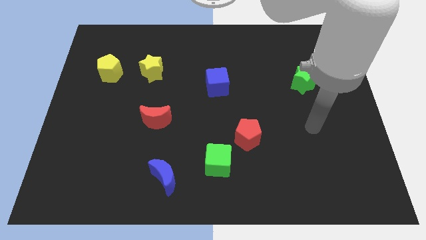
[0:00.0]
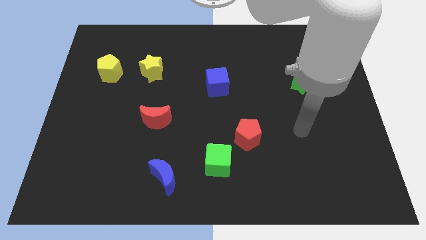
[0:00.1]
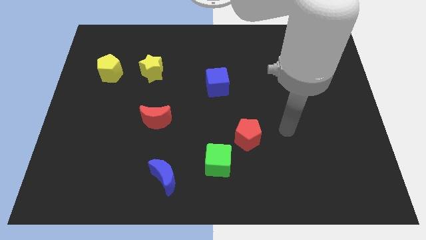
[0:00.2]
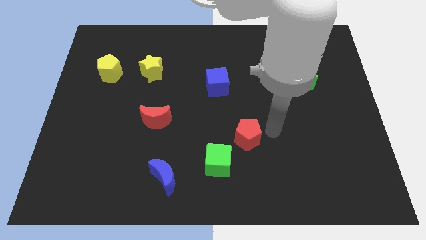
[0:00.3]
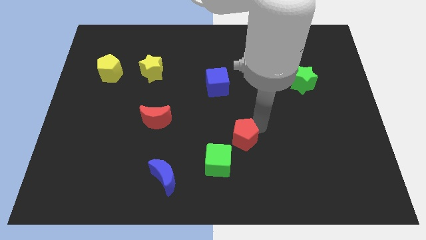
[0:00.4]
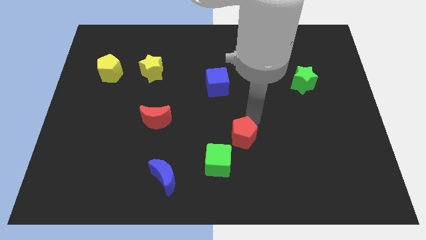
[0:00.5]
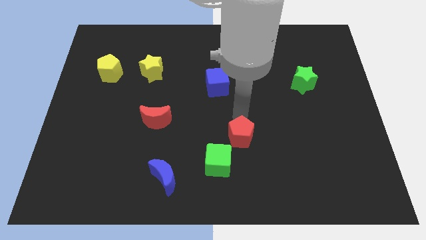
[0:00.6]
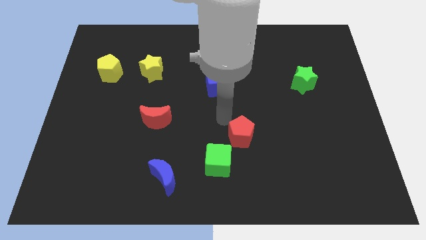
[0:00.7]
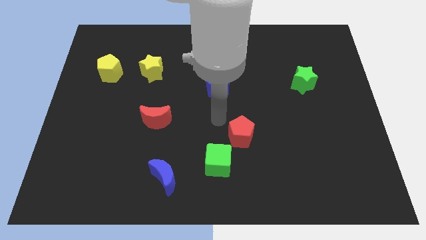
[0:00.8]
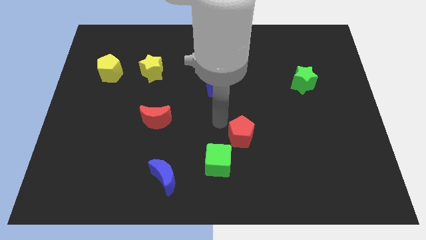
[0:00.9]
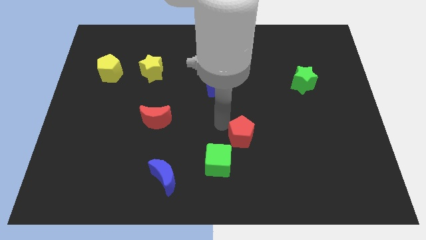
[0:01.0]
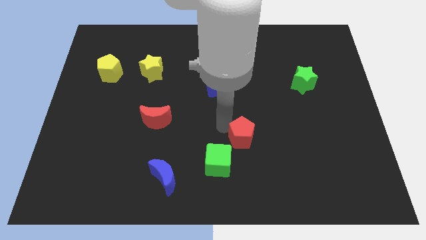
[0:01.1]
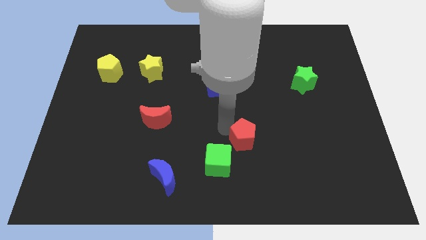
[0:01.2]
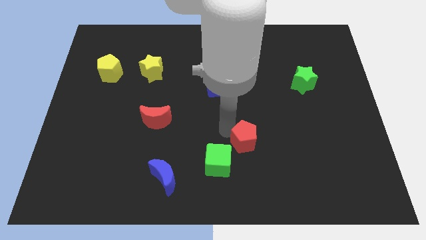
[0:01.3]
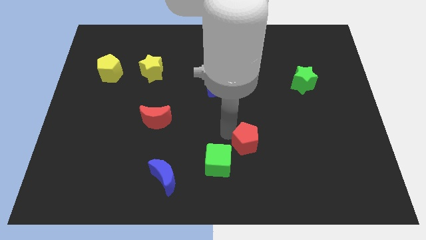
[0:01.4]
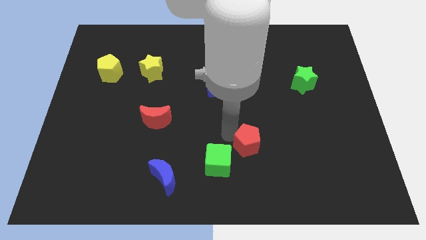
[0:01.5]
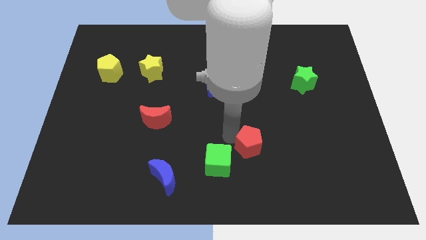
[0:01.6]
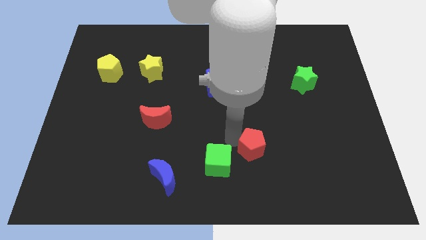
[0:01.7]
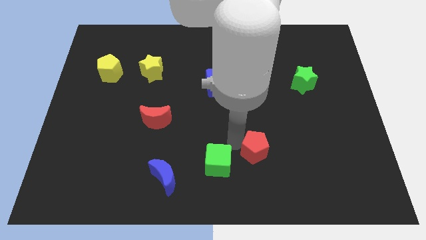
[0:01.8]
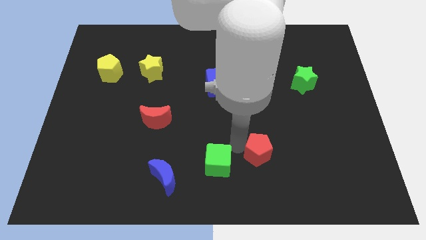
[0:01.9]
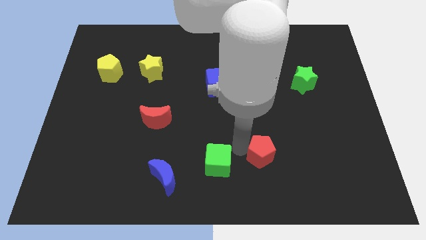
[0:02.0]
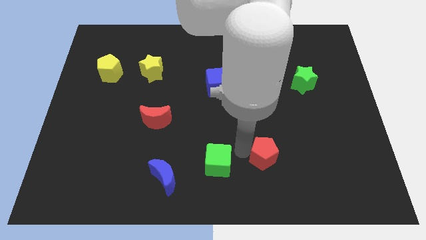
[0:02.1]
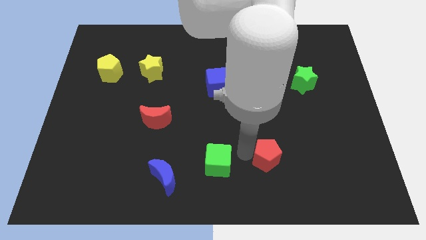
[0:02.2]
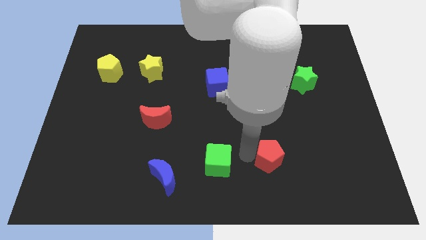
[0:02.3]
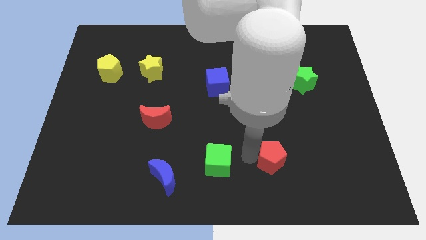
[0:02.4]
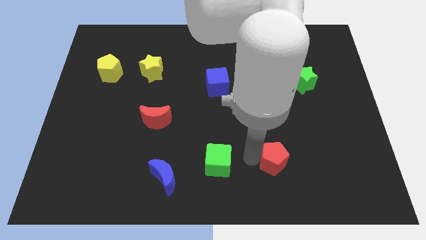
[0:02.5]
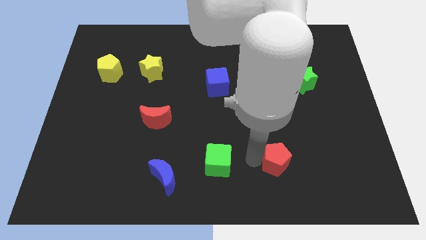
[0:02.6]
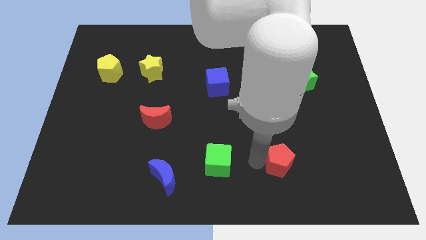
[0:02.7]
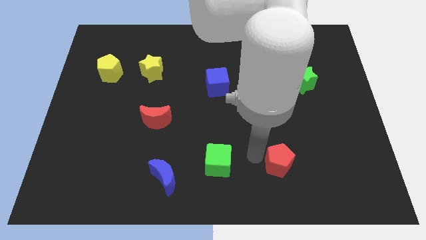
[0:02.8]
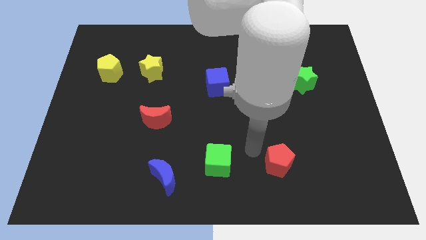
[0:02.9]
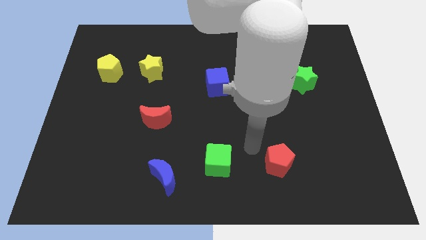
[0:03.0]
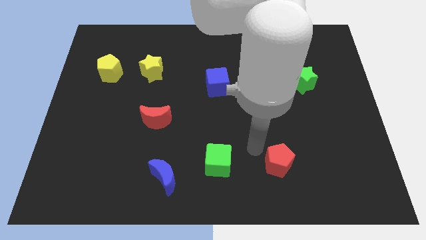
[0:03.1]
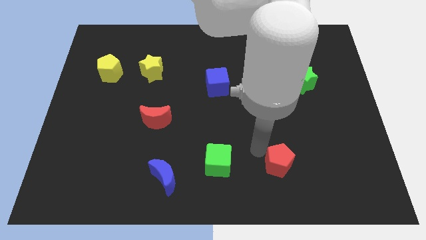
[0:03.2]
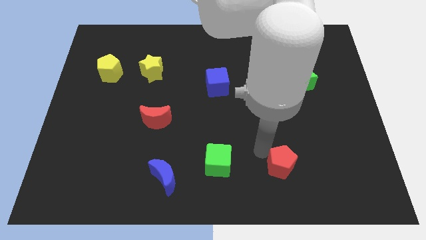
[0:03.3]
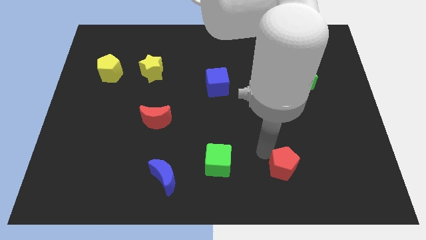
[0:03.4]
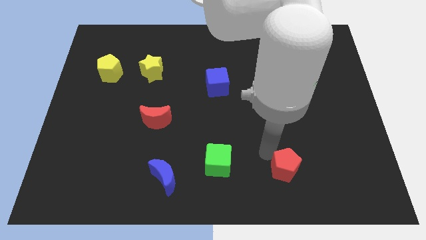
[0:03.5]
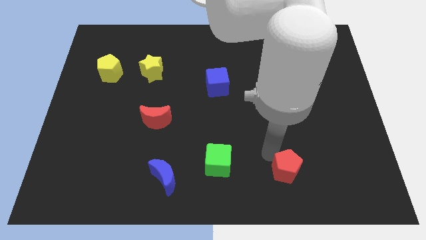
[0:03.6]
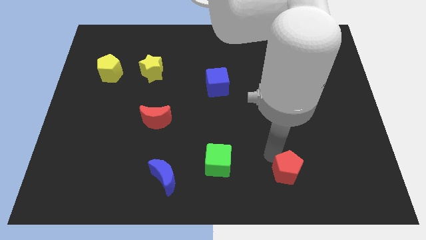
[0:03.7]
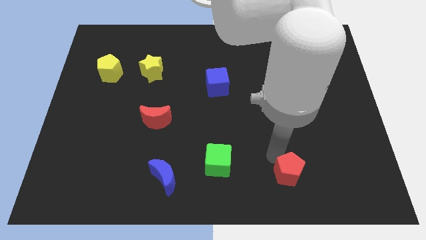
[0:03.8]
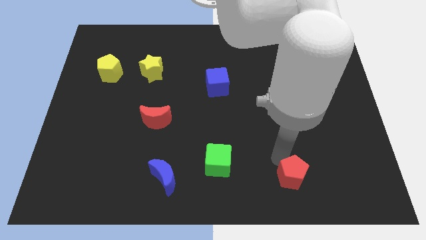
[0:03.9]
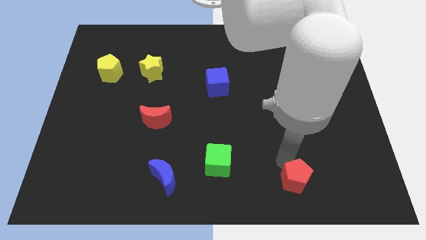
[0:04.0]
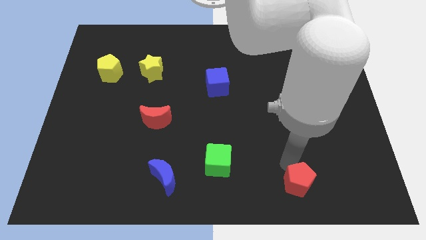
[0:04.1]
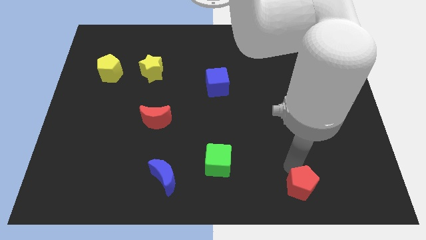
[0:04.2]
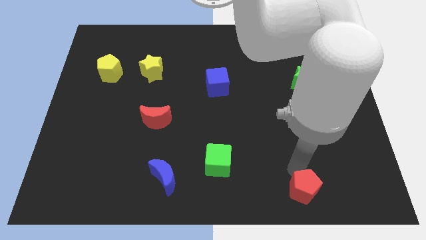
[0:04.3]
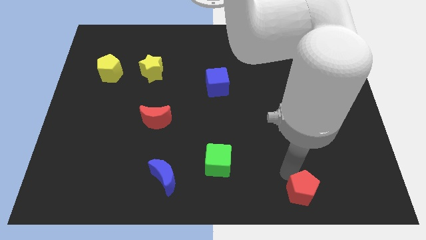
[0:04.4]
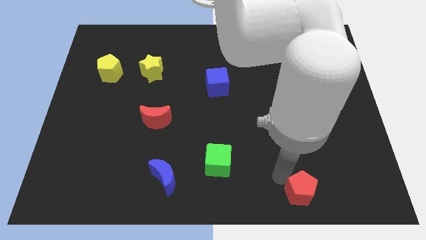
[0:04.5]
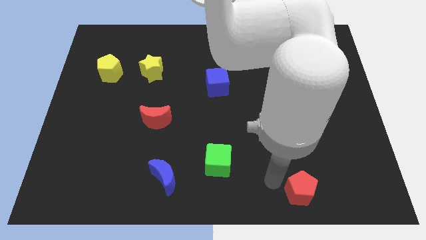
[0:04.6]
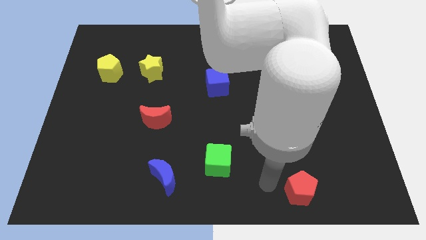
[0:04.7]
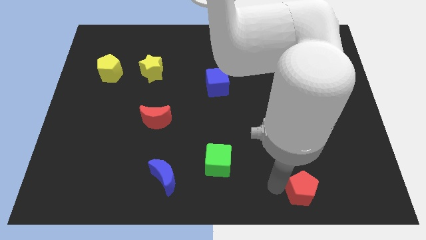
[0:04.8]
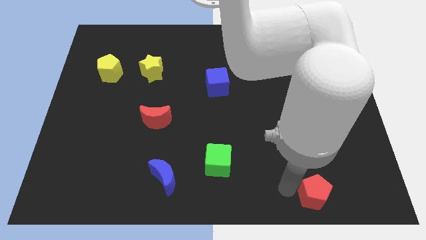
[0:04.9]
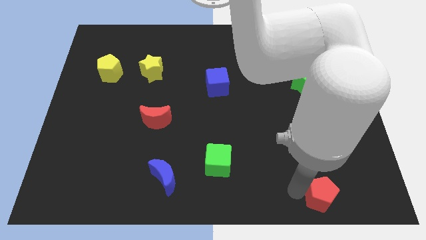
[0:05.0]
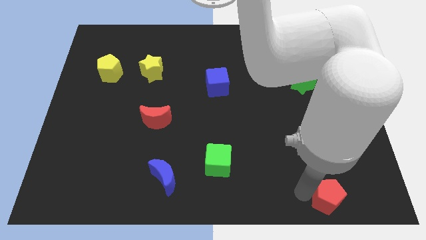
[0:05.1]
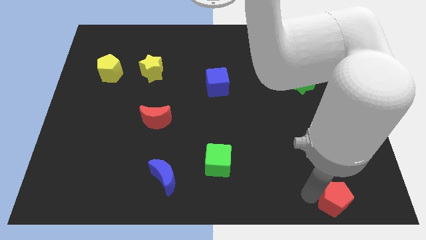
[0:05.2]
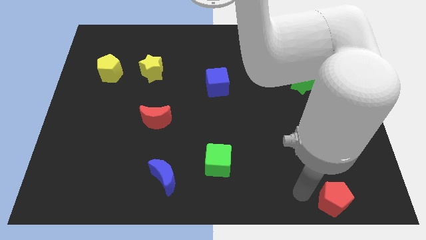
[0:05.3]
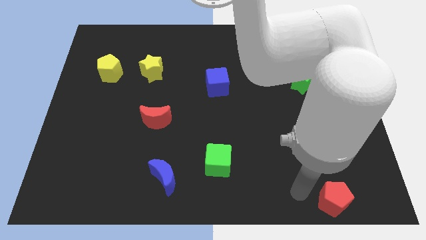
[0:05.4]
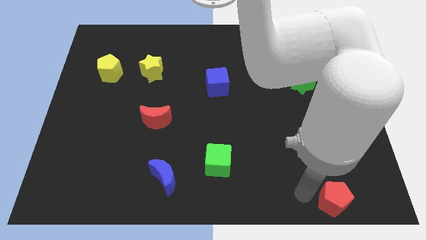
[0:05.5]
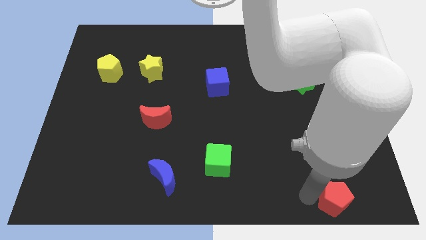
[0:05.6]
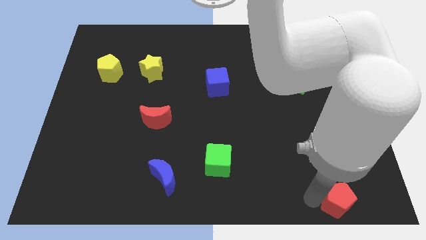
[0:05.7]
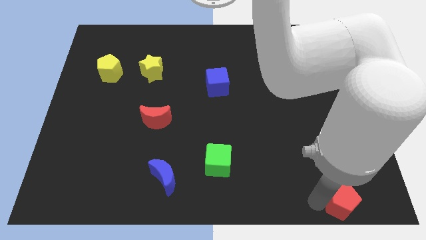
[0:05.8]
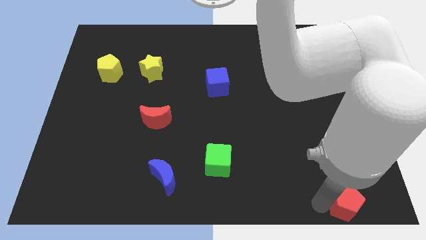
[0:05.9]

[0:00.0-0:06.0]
push the red pentagon to the bottom right corner
